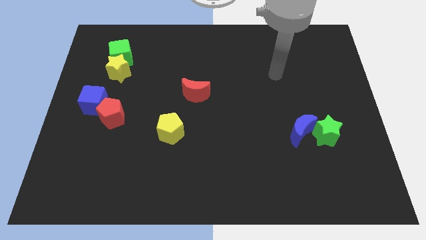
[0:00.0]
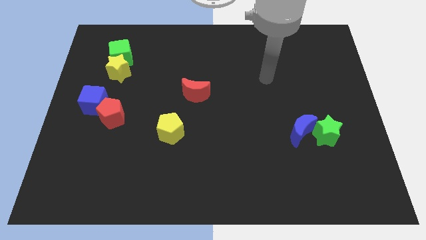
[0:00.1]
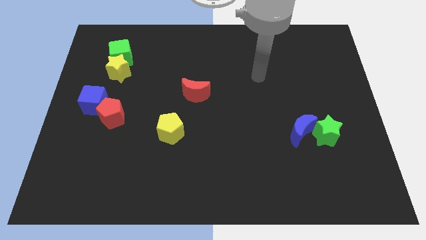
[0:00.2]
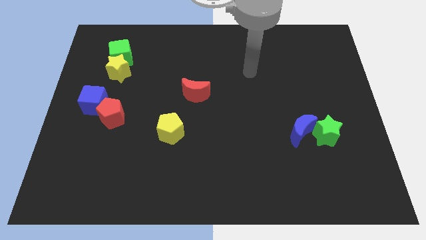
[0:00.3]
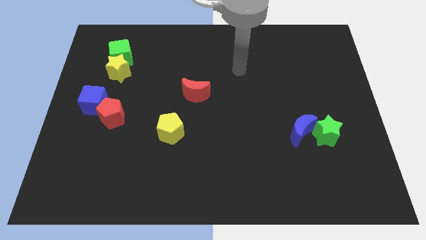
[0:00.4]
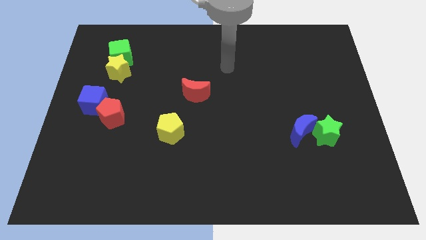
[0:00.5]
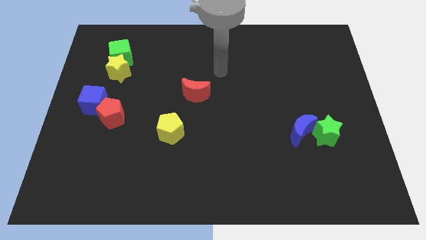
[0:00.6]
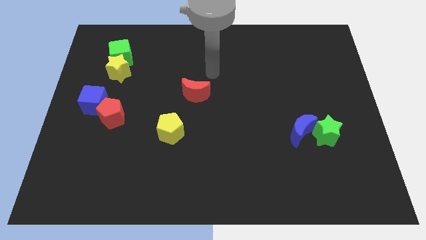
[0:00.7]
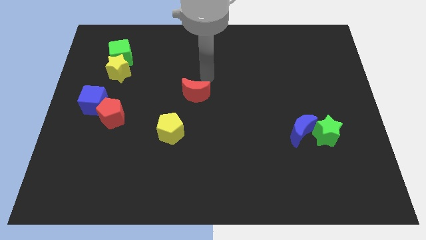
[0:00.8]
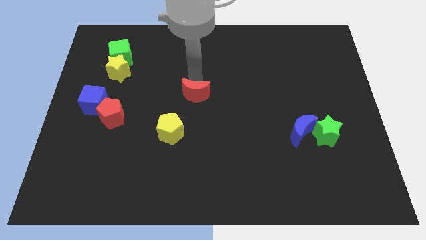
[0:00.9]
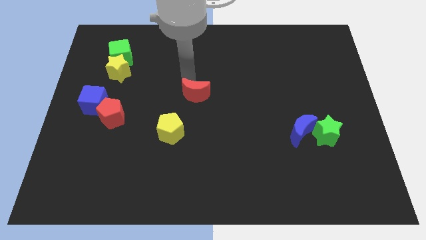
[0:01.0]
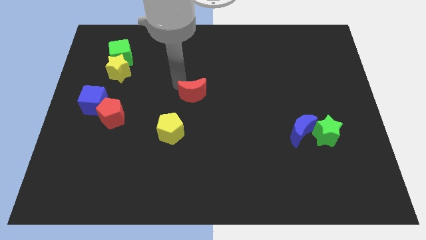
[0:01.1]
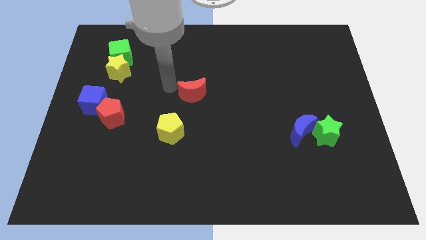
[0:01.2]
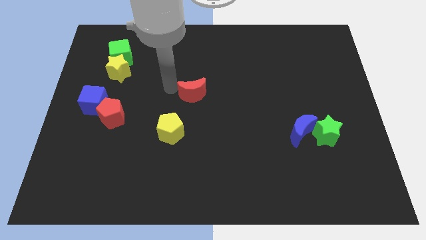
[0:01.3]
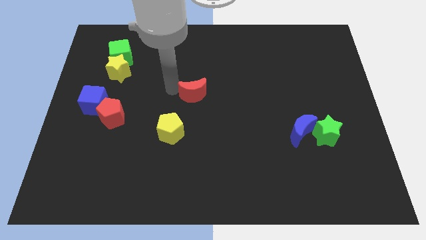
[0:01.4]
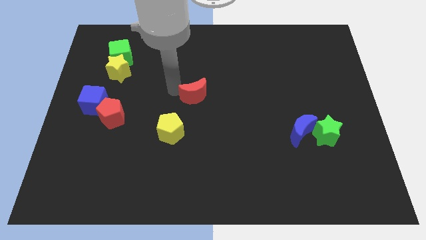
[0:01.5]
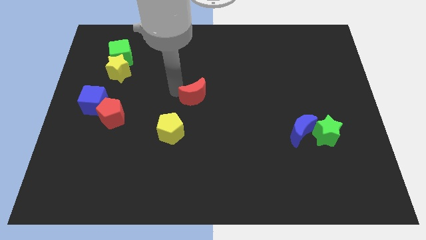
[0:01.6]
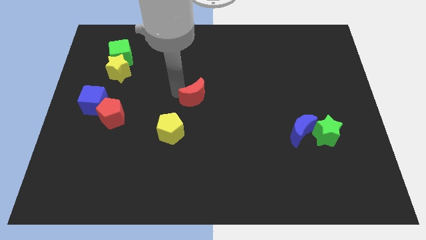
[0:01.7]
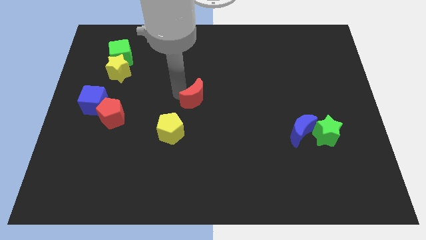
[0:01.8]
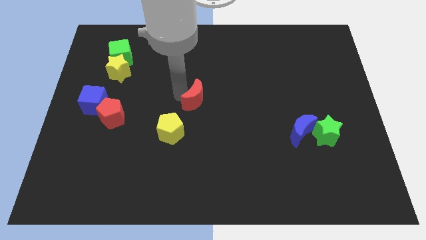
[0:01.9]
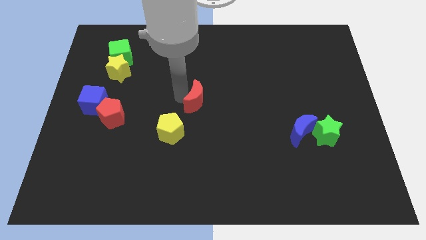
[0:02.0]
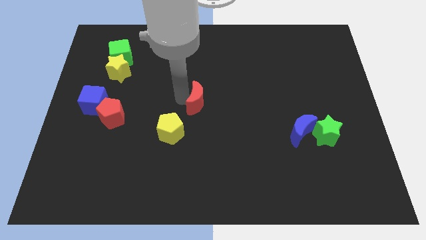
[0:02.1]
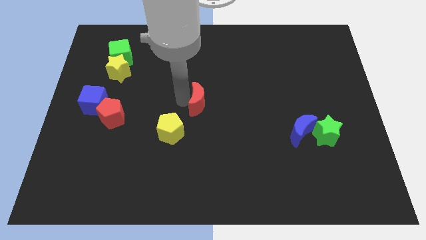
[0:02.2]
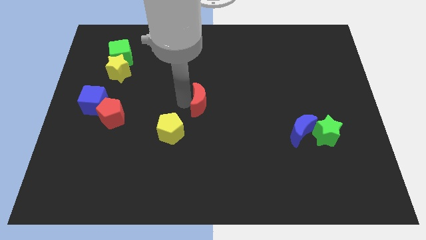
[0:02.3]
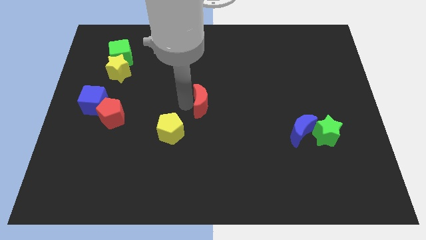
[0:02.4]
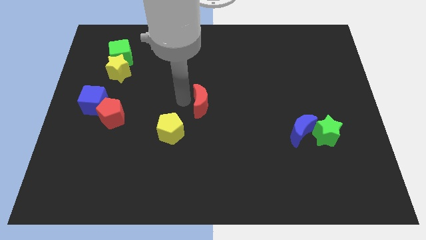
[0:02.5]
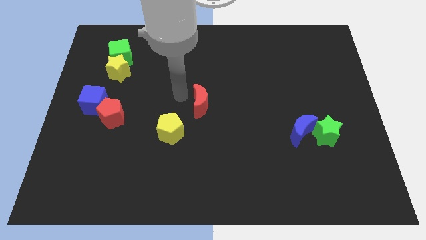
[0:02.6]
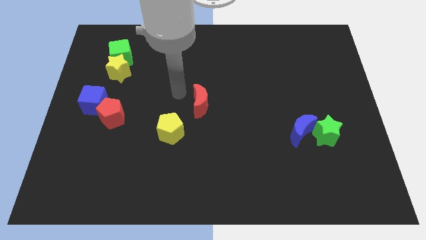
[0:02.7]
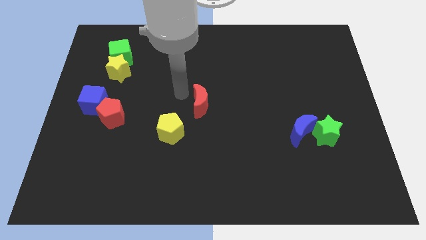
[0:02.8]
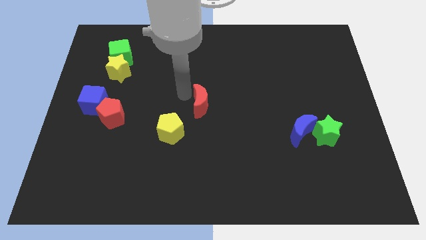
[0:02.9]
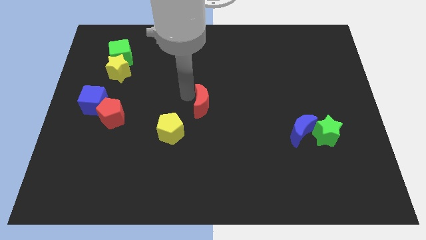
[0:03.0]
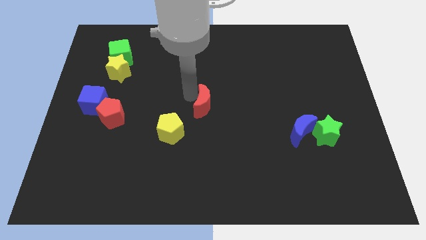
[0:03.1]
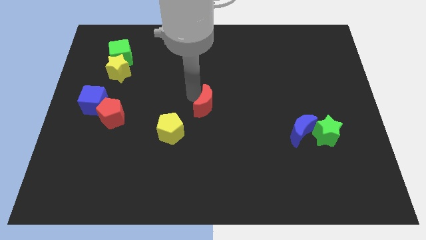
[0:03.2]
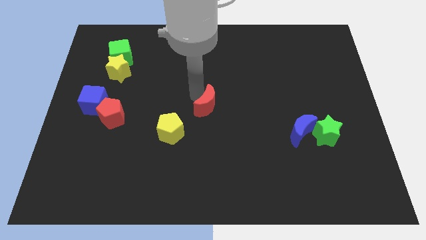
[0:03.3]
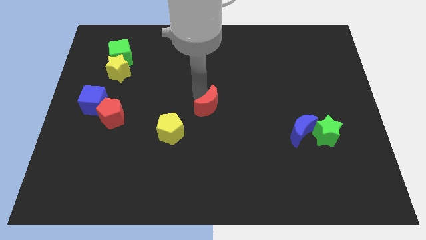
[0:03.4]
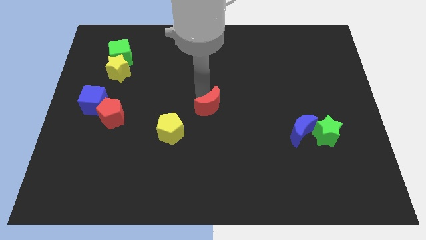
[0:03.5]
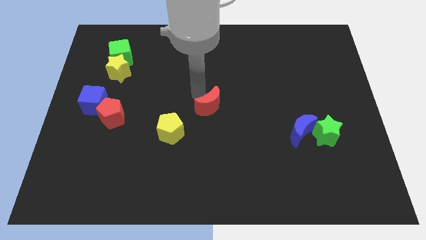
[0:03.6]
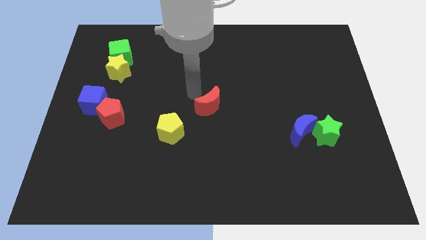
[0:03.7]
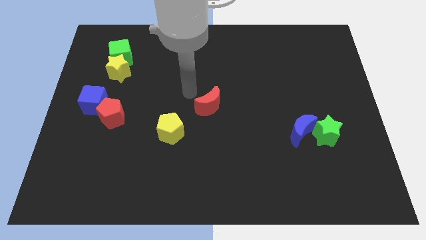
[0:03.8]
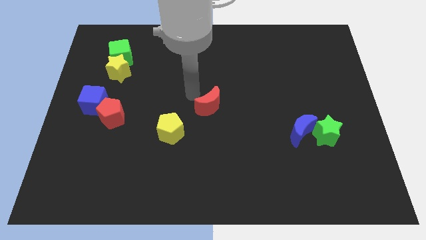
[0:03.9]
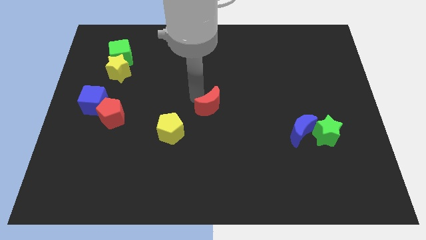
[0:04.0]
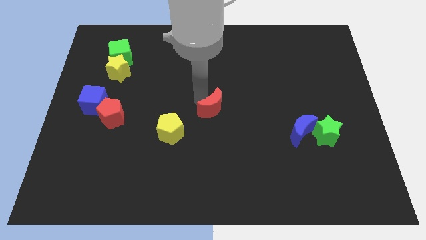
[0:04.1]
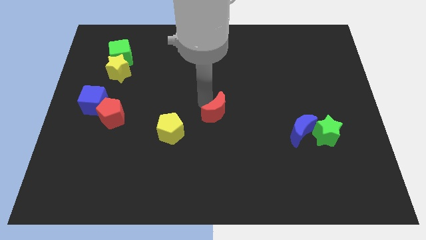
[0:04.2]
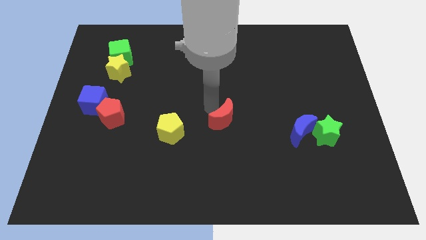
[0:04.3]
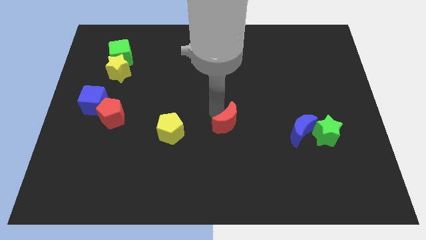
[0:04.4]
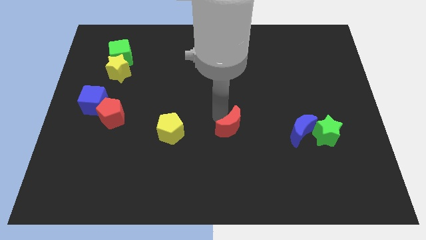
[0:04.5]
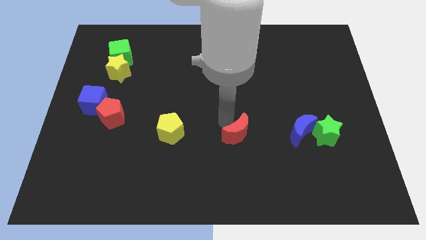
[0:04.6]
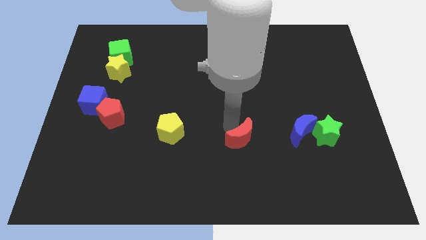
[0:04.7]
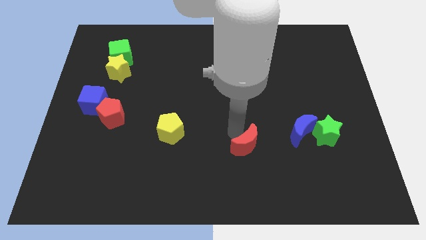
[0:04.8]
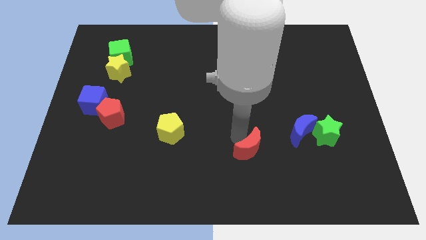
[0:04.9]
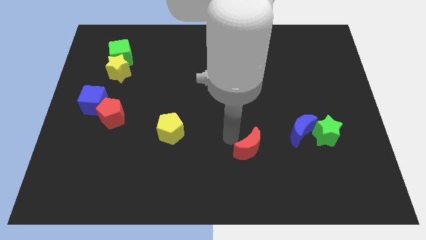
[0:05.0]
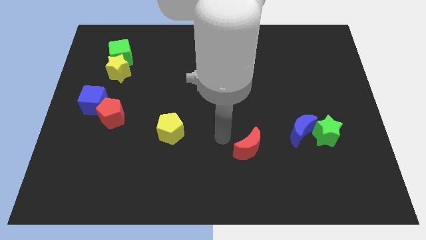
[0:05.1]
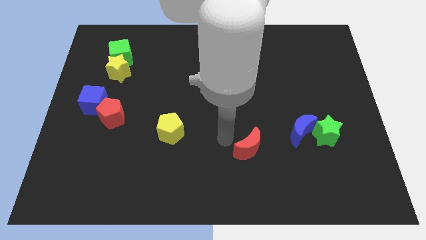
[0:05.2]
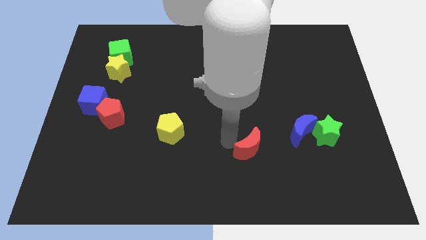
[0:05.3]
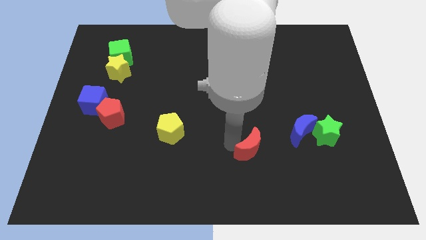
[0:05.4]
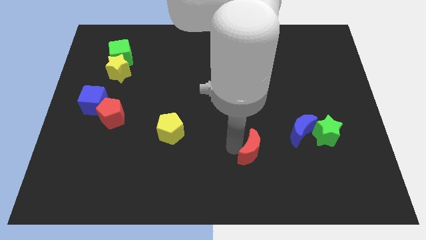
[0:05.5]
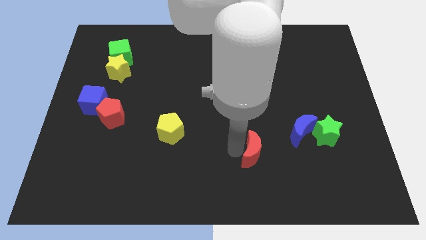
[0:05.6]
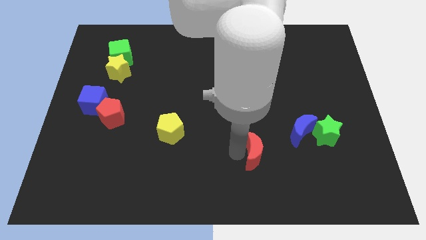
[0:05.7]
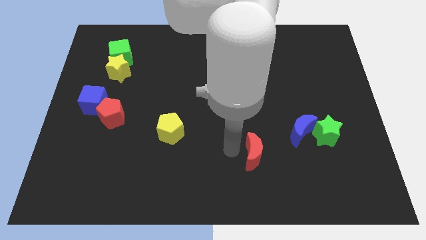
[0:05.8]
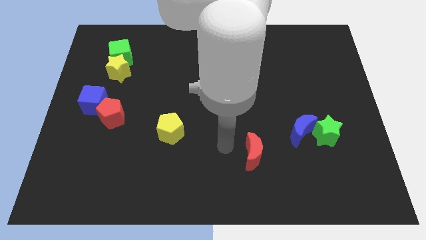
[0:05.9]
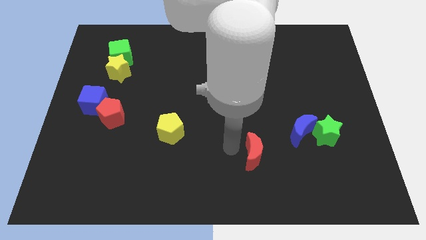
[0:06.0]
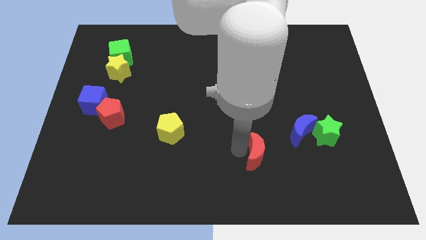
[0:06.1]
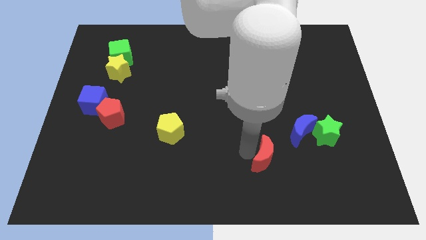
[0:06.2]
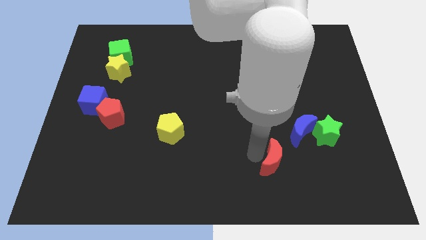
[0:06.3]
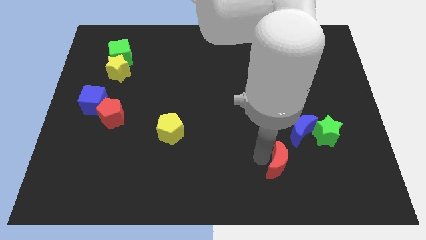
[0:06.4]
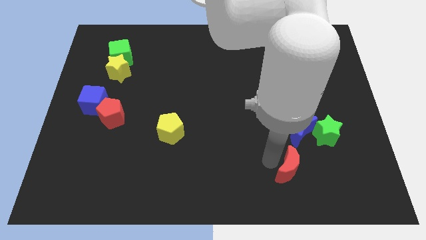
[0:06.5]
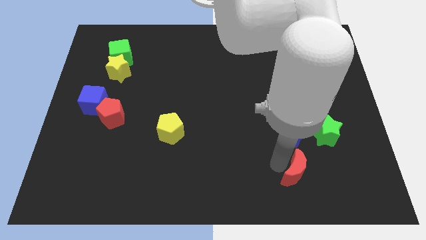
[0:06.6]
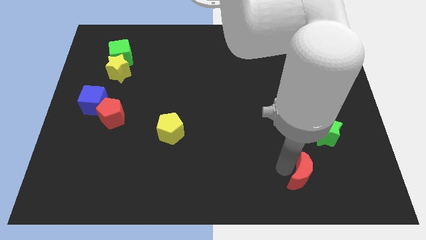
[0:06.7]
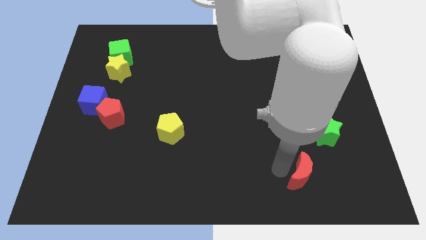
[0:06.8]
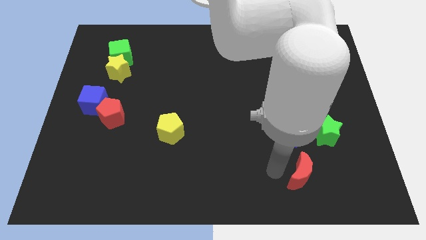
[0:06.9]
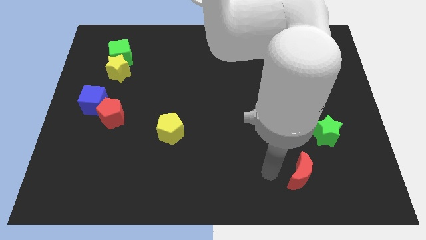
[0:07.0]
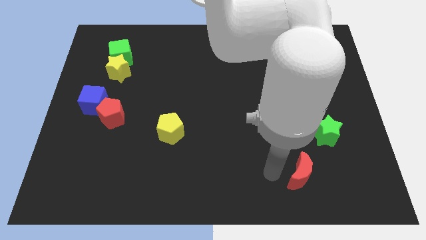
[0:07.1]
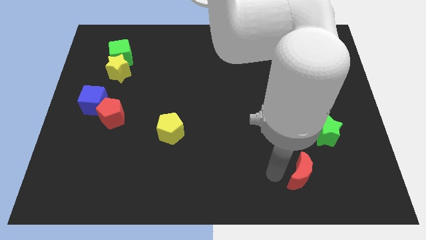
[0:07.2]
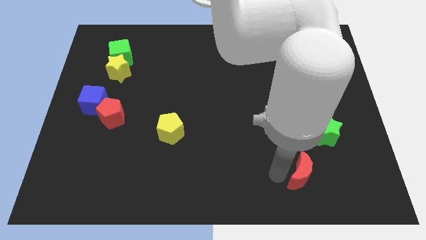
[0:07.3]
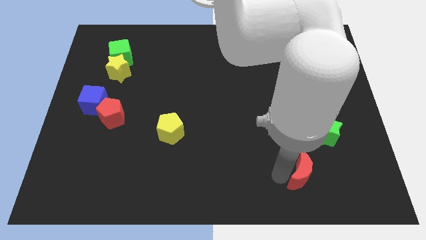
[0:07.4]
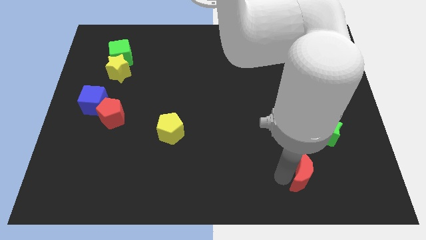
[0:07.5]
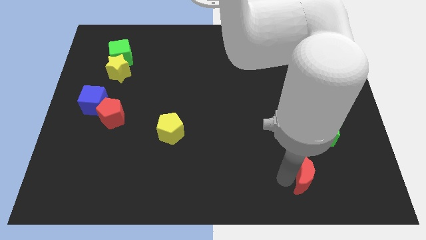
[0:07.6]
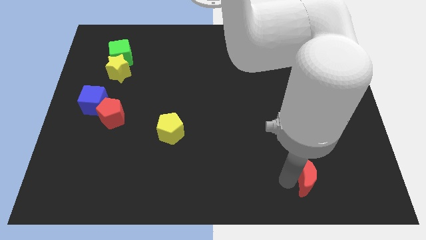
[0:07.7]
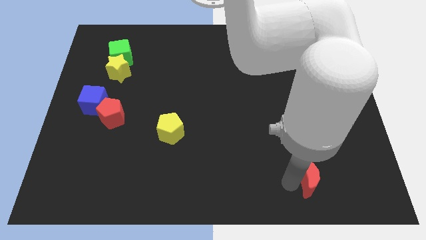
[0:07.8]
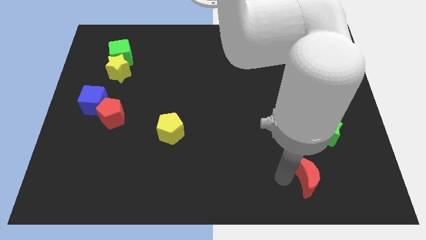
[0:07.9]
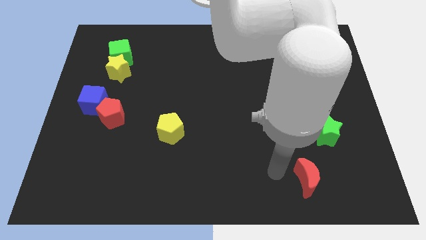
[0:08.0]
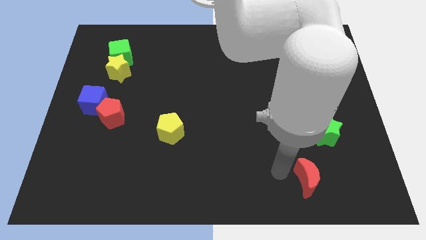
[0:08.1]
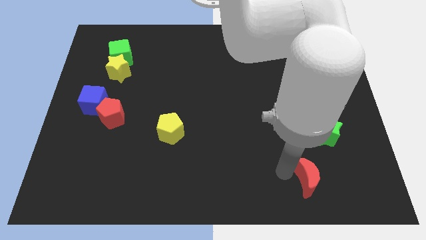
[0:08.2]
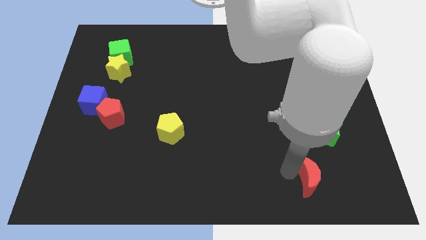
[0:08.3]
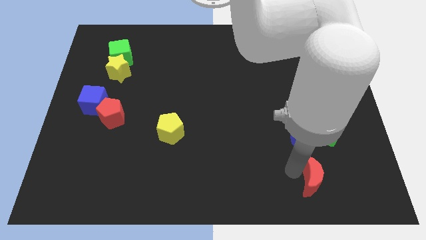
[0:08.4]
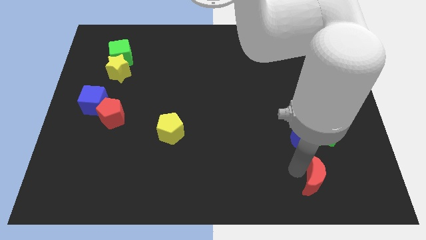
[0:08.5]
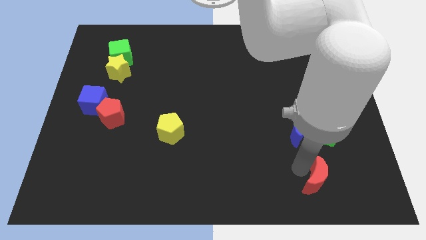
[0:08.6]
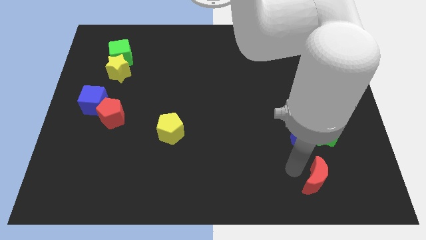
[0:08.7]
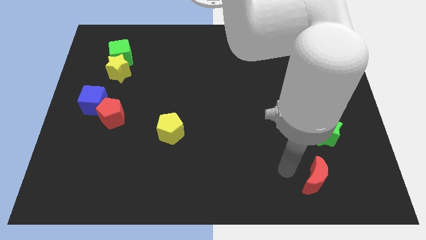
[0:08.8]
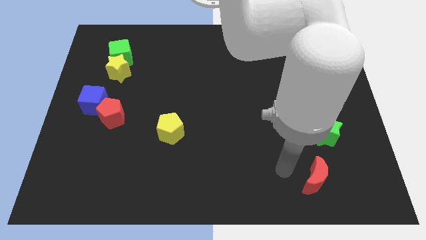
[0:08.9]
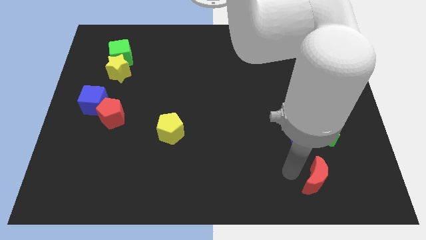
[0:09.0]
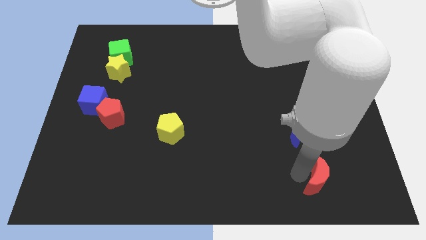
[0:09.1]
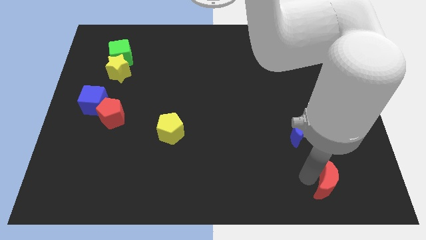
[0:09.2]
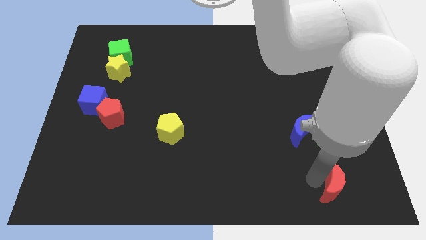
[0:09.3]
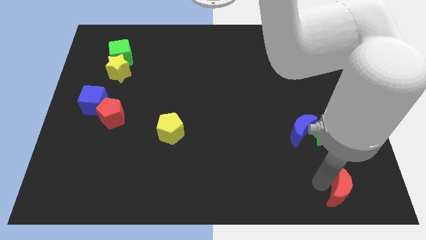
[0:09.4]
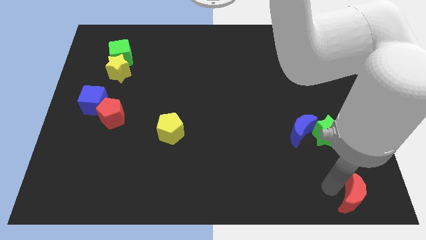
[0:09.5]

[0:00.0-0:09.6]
slide the red moon to the bottom right of the board
